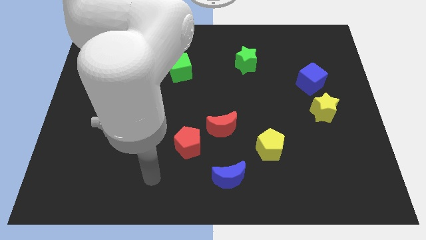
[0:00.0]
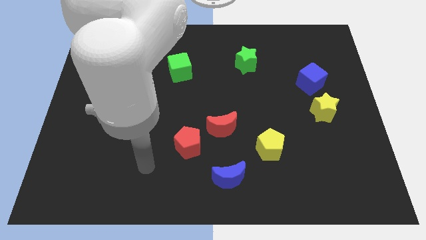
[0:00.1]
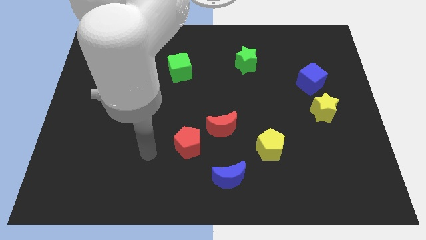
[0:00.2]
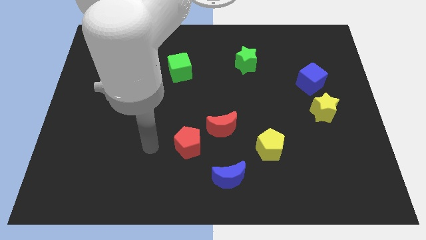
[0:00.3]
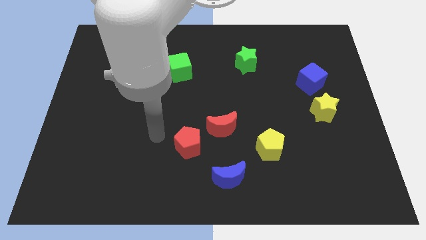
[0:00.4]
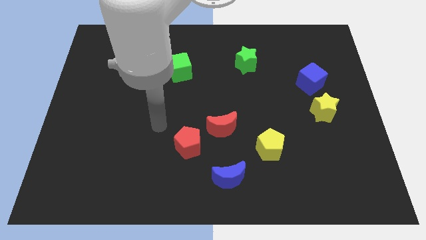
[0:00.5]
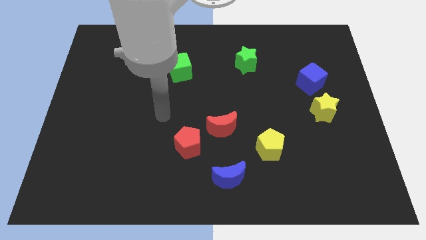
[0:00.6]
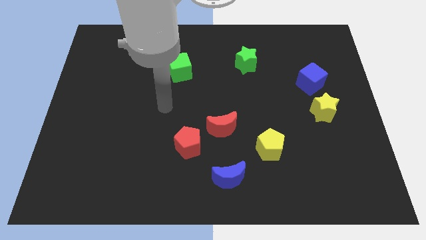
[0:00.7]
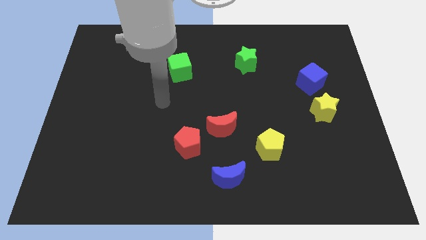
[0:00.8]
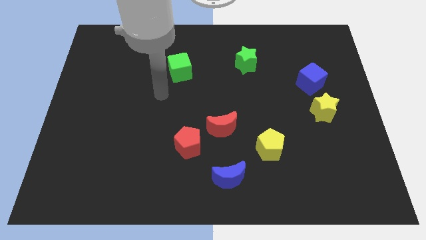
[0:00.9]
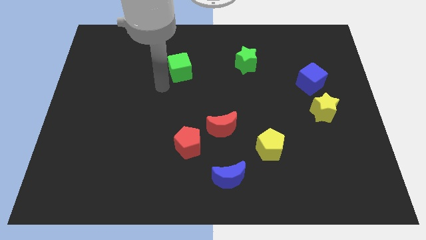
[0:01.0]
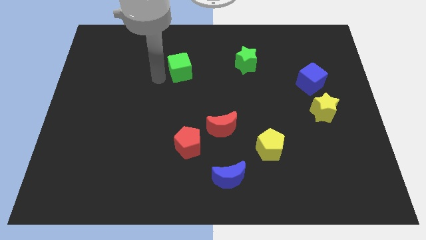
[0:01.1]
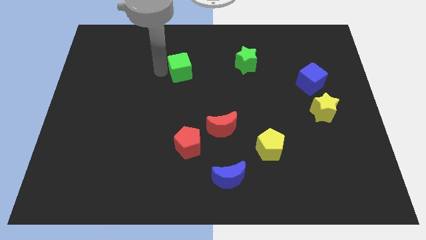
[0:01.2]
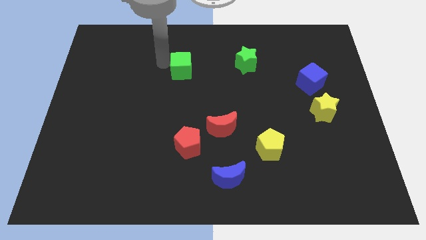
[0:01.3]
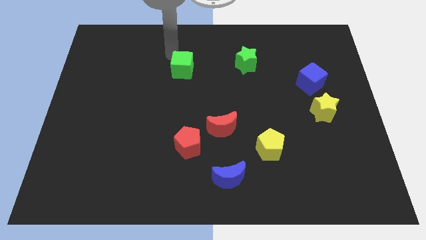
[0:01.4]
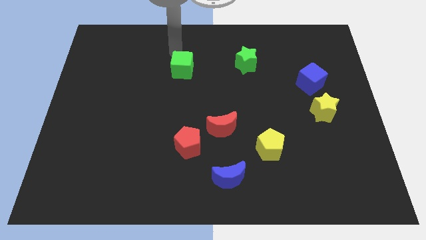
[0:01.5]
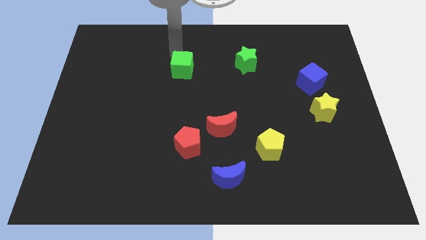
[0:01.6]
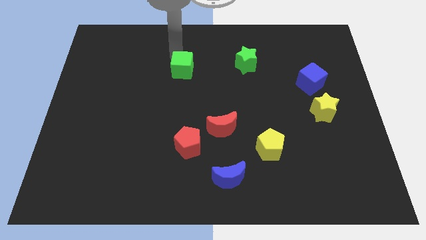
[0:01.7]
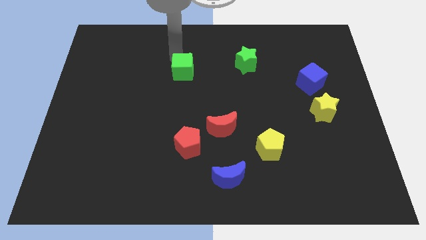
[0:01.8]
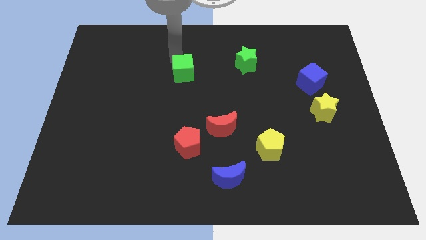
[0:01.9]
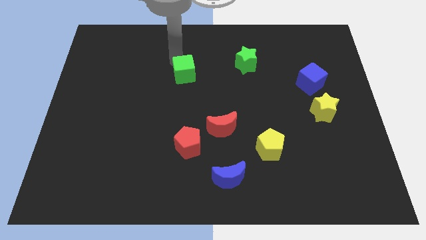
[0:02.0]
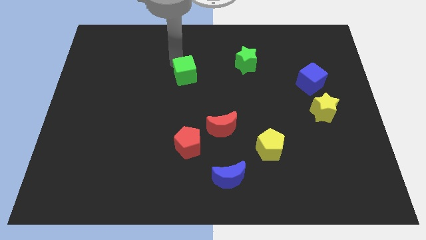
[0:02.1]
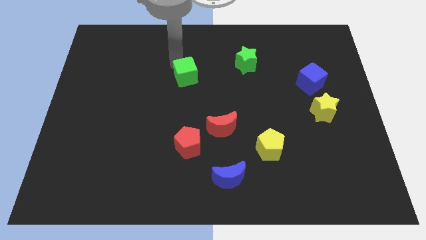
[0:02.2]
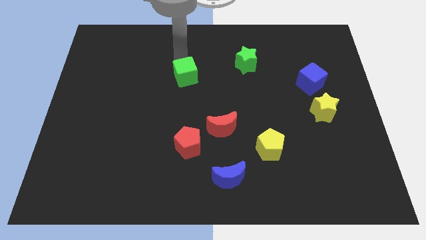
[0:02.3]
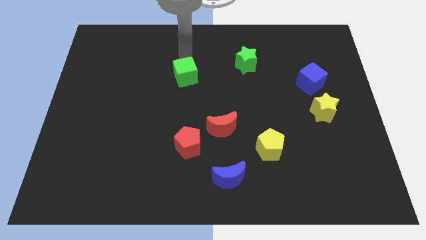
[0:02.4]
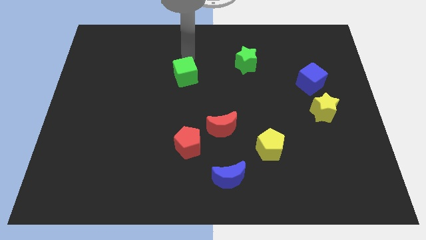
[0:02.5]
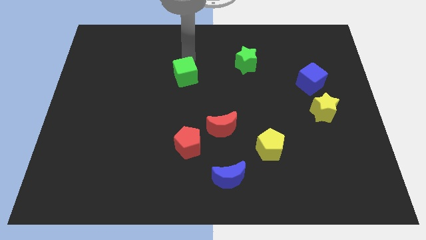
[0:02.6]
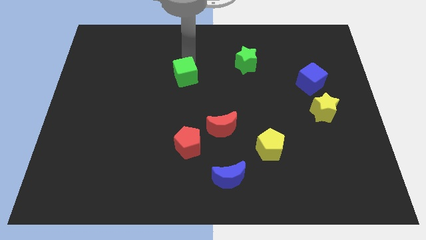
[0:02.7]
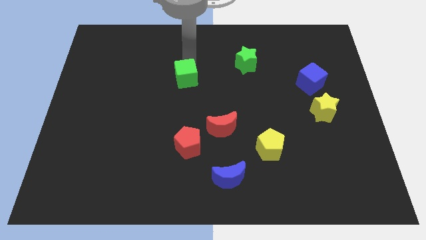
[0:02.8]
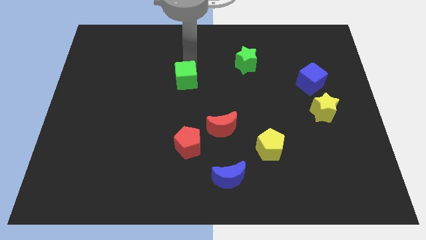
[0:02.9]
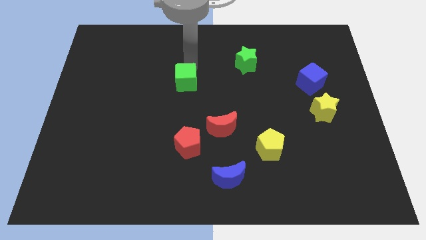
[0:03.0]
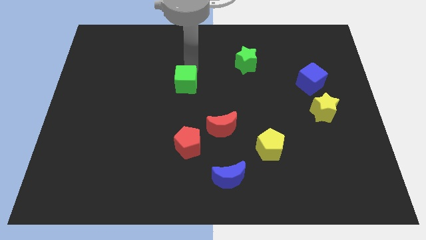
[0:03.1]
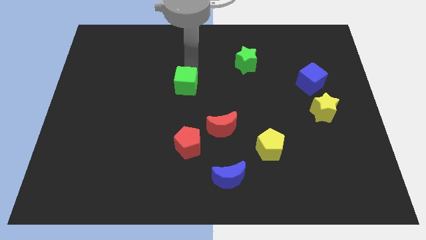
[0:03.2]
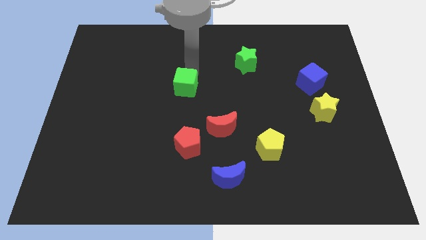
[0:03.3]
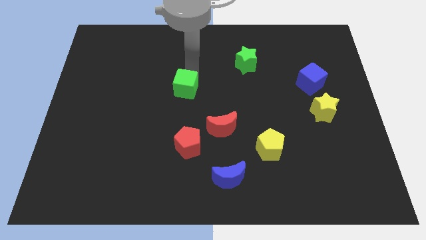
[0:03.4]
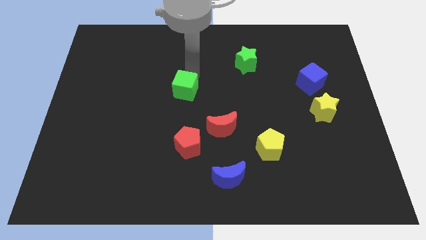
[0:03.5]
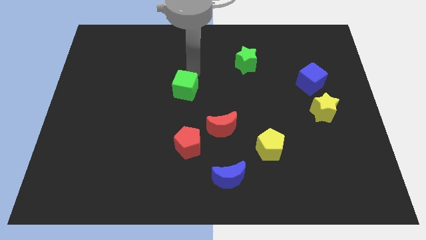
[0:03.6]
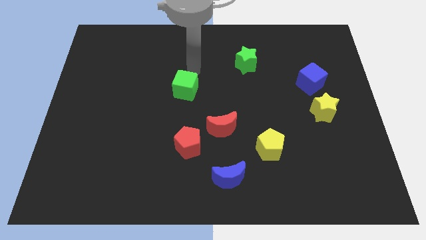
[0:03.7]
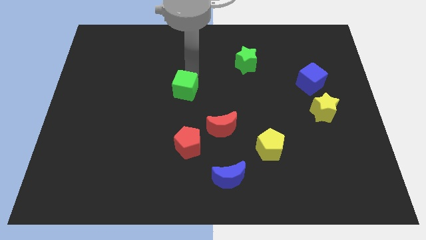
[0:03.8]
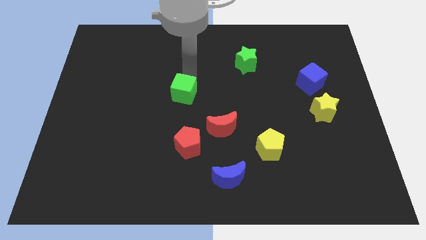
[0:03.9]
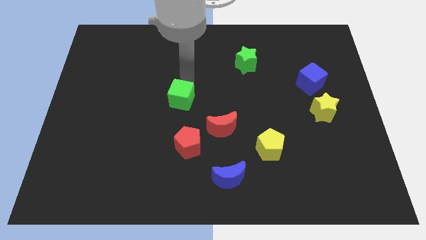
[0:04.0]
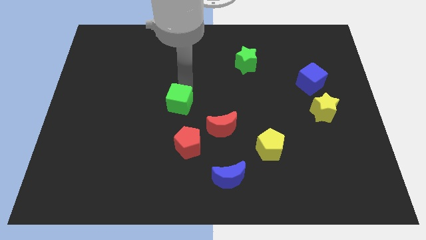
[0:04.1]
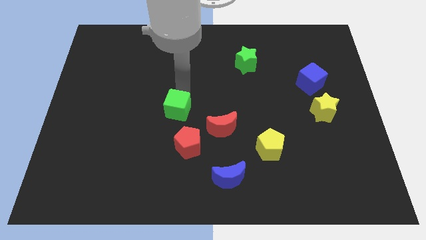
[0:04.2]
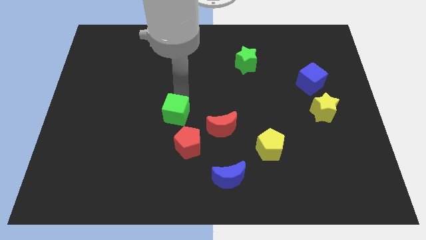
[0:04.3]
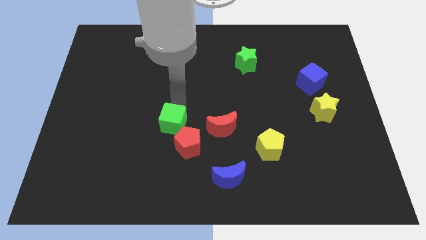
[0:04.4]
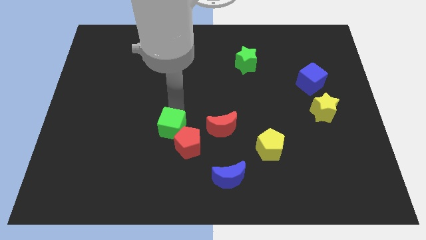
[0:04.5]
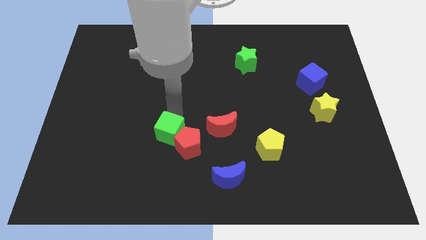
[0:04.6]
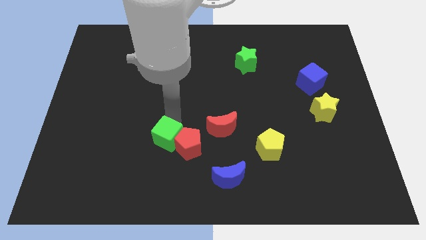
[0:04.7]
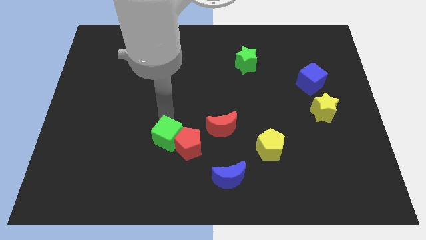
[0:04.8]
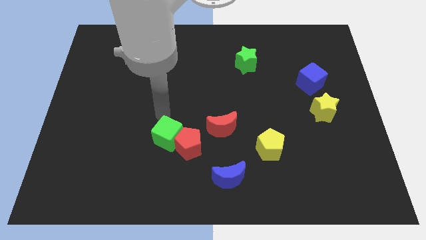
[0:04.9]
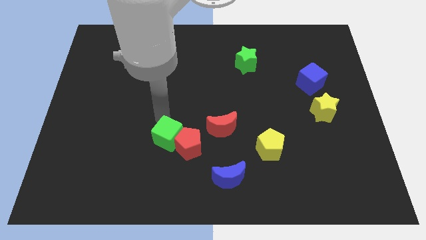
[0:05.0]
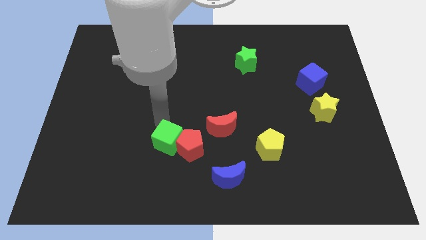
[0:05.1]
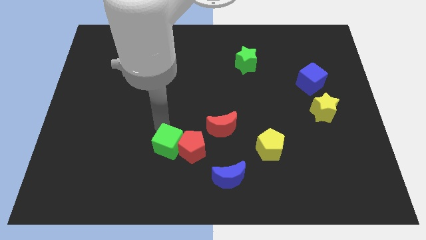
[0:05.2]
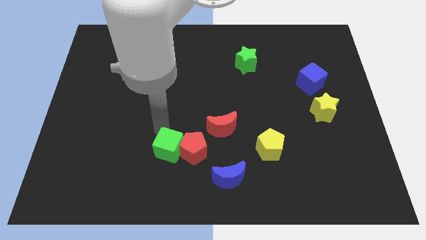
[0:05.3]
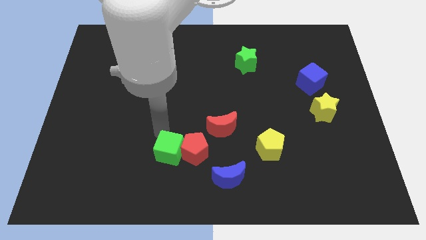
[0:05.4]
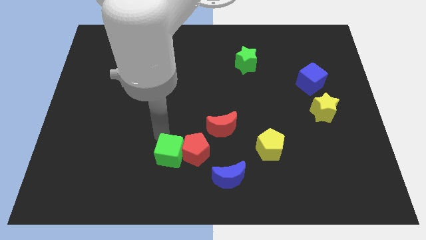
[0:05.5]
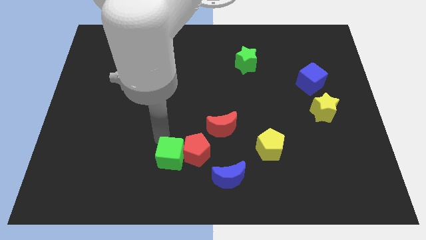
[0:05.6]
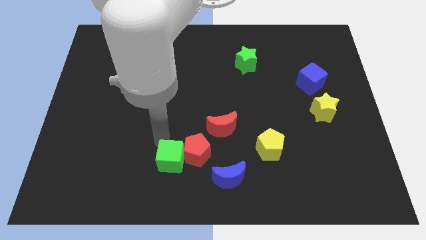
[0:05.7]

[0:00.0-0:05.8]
slide the green cube just left of the blue moon

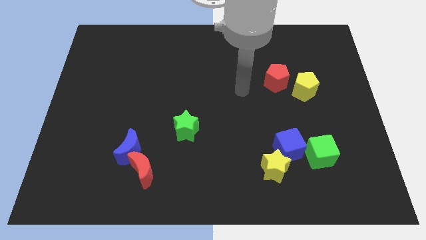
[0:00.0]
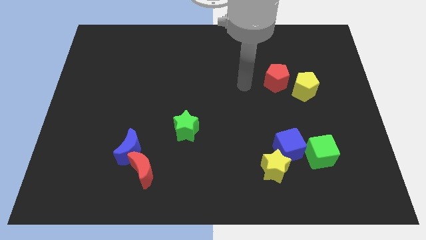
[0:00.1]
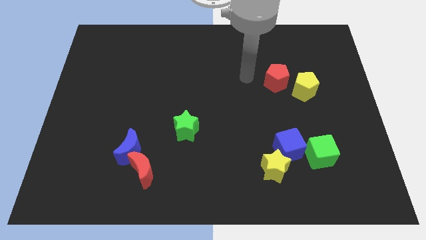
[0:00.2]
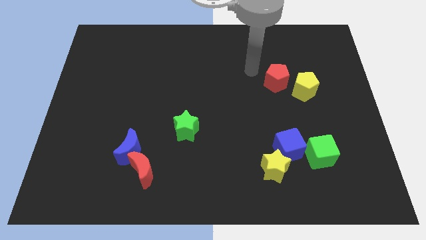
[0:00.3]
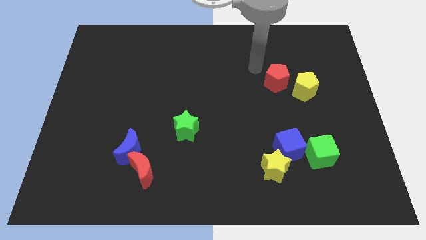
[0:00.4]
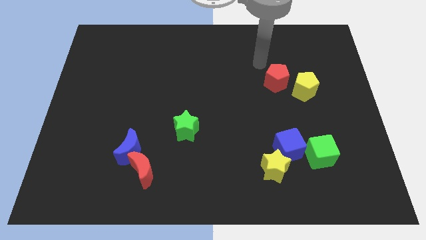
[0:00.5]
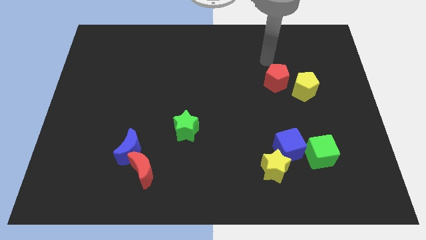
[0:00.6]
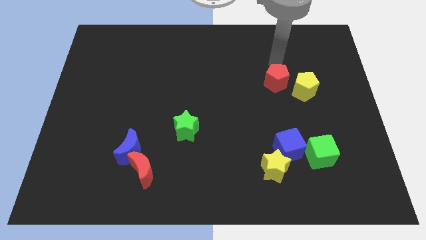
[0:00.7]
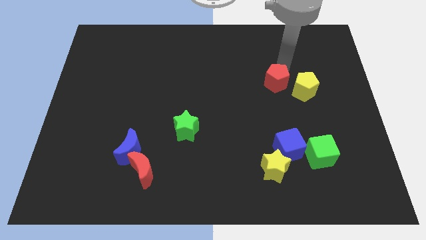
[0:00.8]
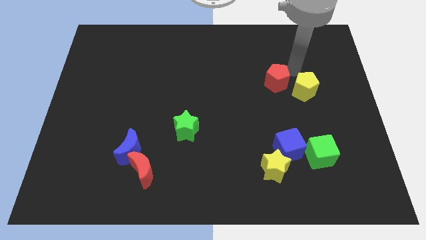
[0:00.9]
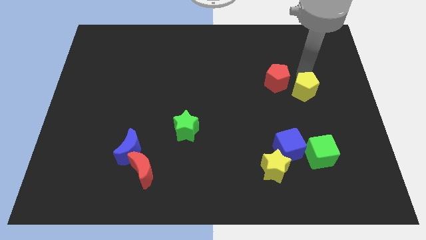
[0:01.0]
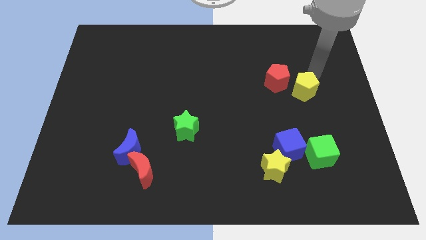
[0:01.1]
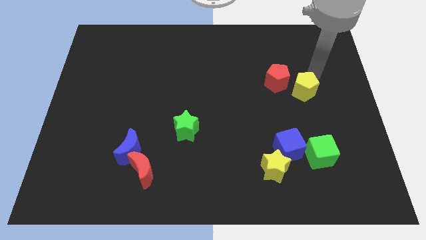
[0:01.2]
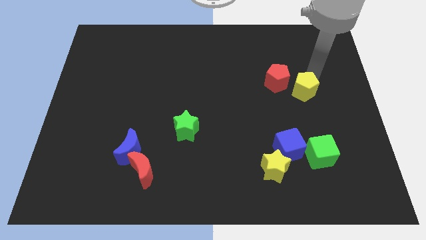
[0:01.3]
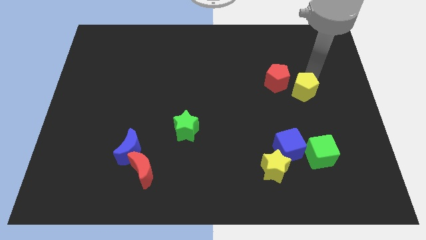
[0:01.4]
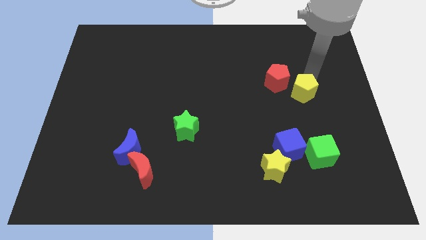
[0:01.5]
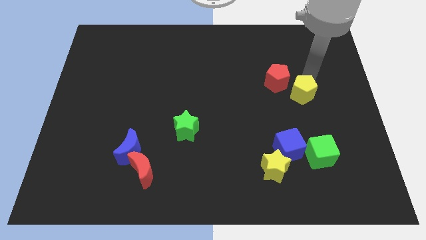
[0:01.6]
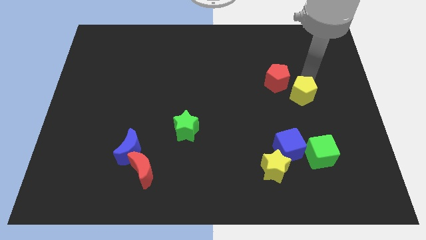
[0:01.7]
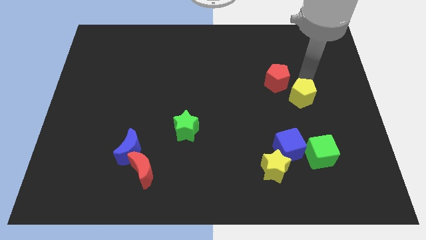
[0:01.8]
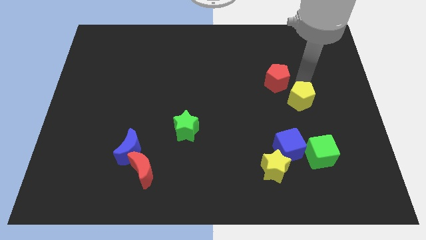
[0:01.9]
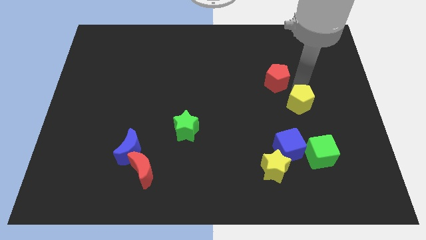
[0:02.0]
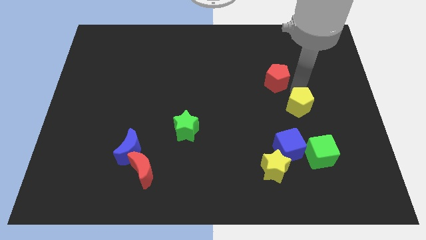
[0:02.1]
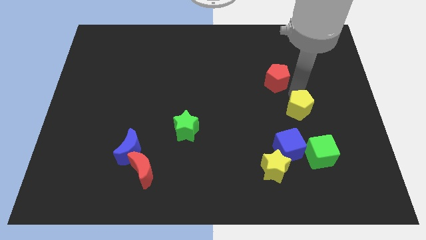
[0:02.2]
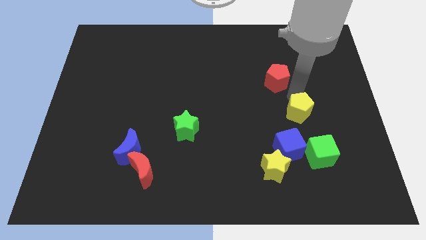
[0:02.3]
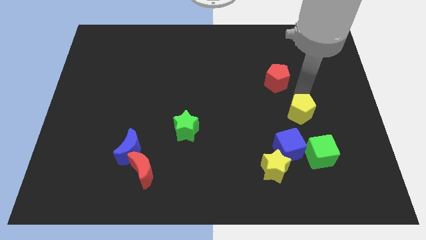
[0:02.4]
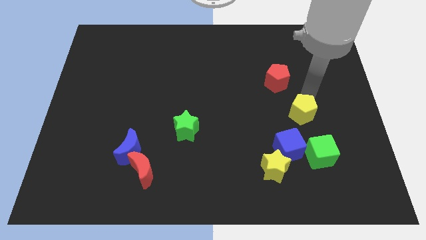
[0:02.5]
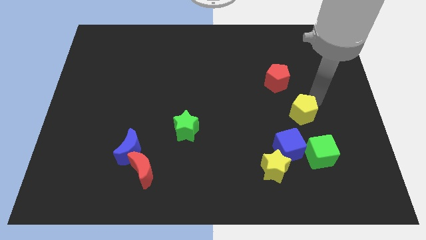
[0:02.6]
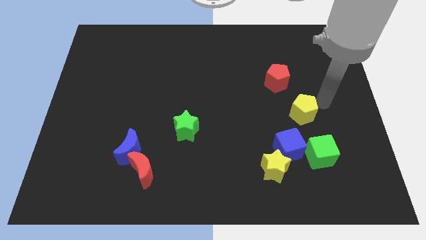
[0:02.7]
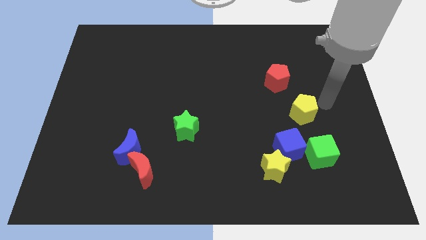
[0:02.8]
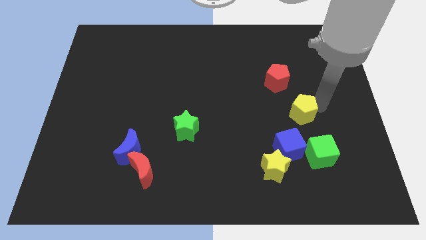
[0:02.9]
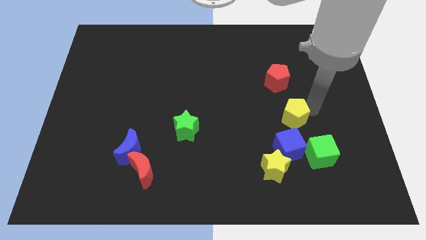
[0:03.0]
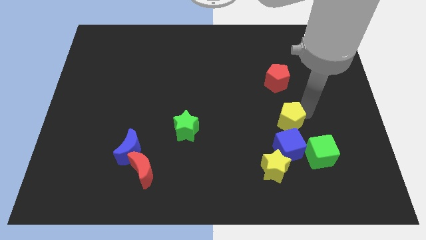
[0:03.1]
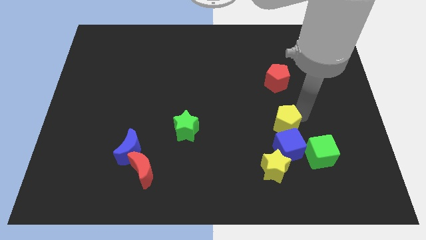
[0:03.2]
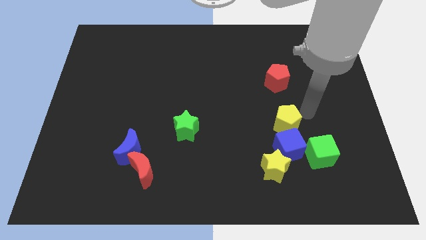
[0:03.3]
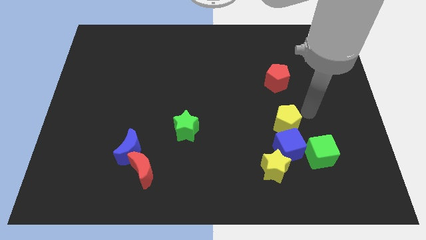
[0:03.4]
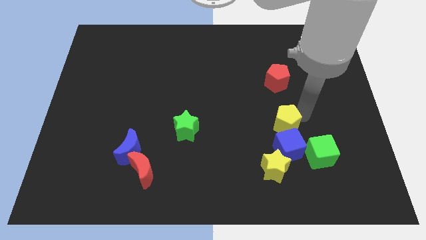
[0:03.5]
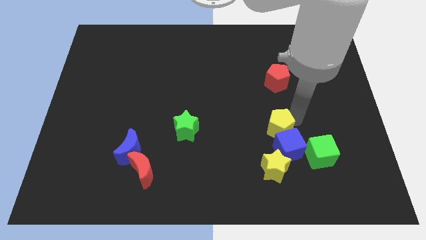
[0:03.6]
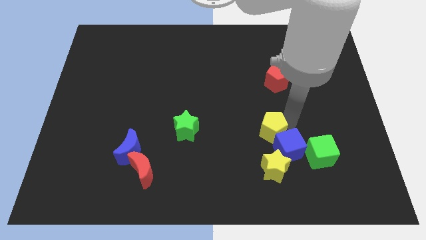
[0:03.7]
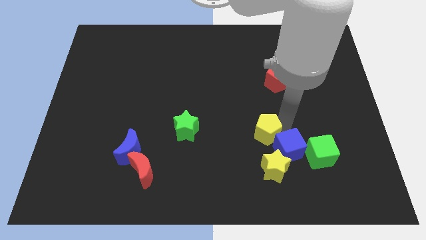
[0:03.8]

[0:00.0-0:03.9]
push the yellow pentagon to the left side of the blue cube
